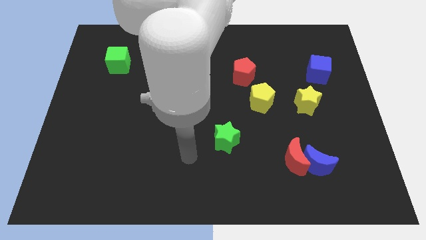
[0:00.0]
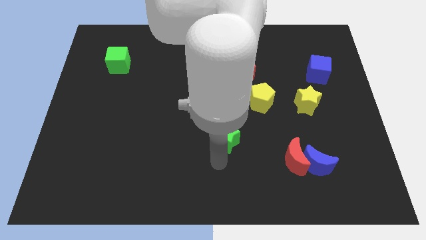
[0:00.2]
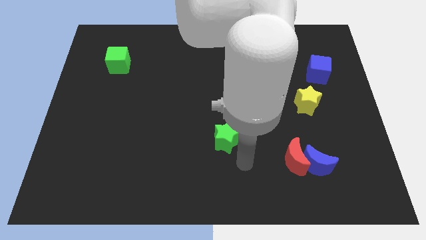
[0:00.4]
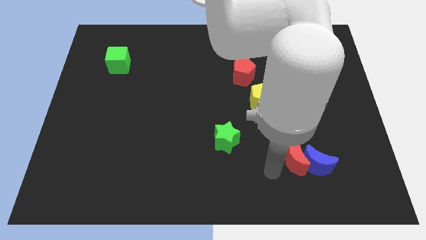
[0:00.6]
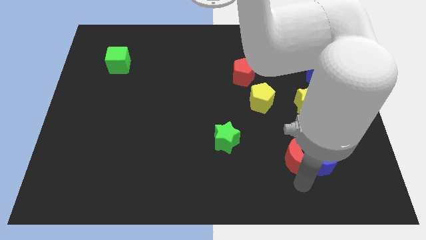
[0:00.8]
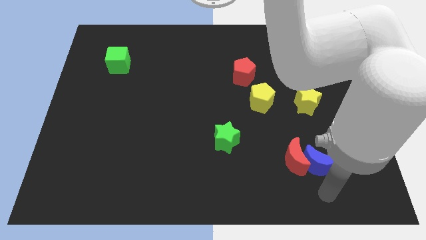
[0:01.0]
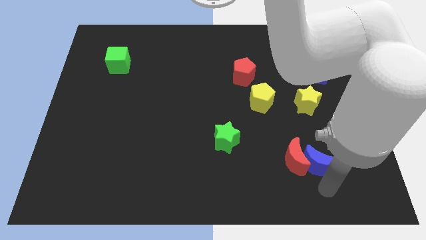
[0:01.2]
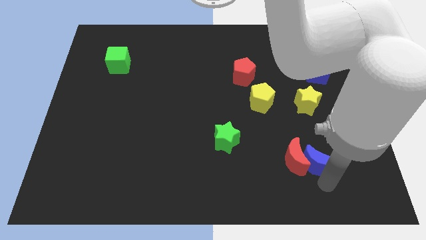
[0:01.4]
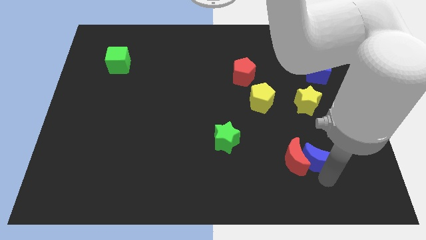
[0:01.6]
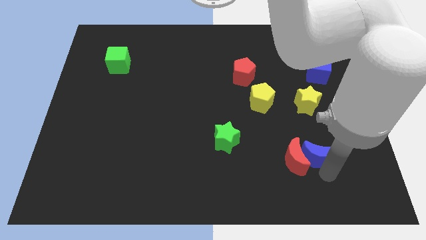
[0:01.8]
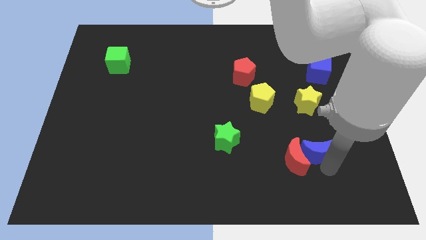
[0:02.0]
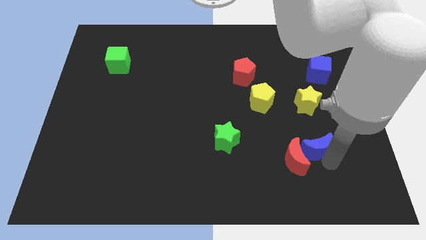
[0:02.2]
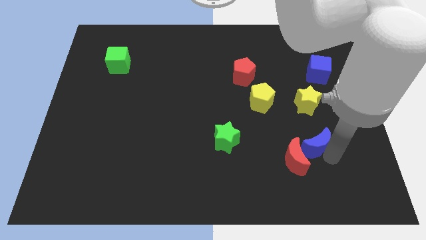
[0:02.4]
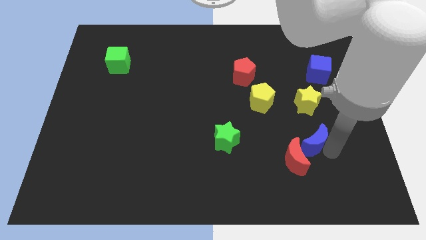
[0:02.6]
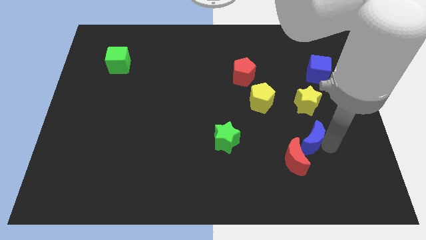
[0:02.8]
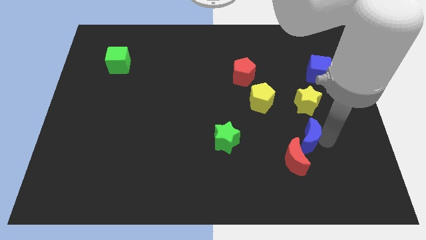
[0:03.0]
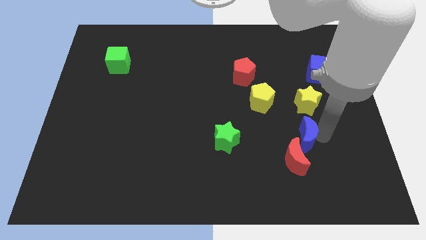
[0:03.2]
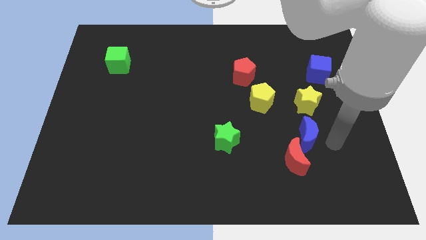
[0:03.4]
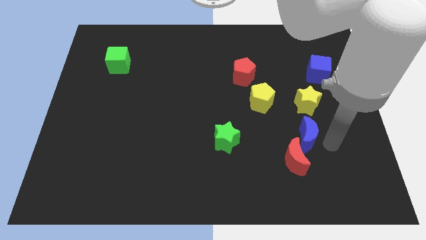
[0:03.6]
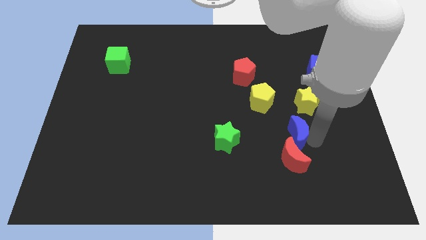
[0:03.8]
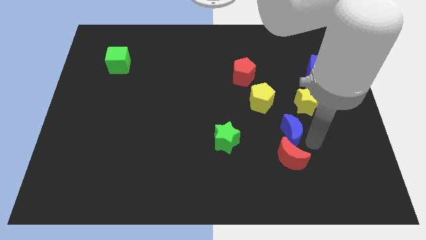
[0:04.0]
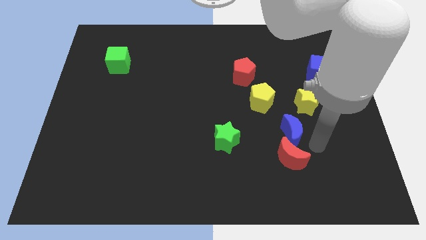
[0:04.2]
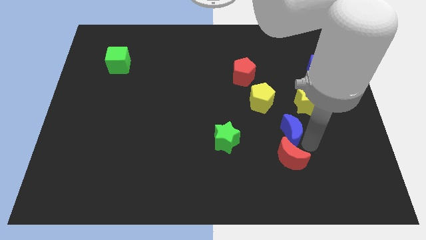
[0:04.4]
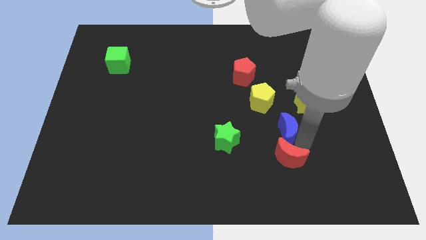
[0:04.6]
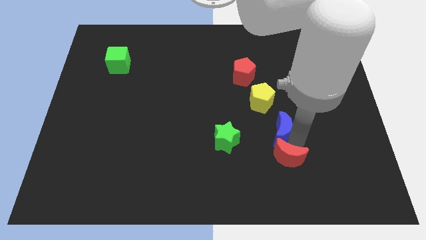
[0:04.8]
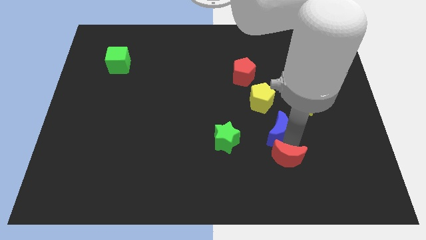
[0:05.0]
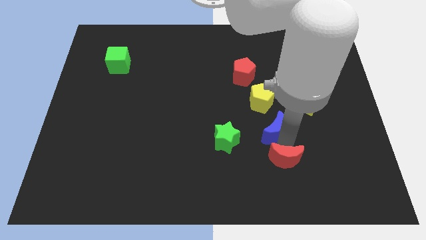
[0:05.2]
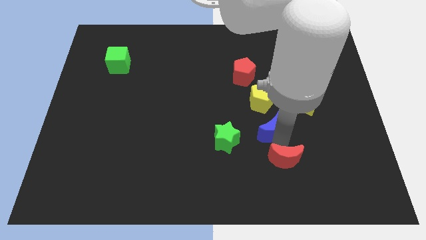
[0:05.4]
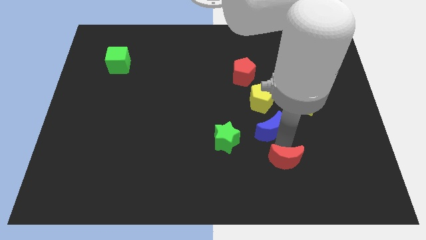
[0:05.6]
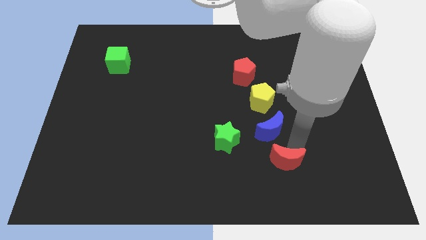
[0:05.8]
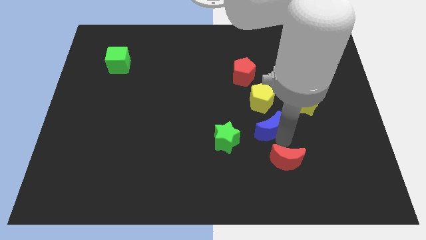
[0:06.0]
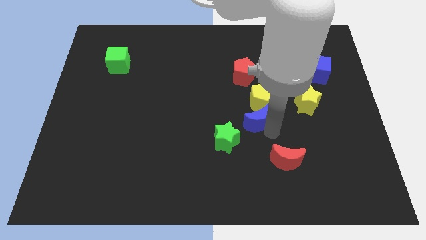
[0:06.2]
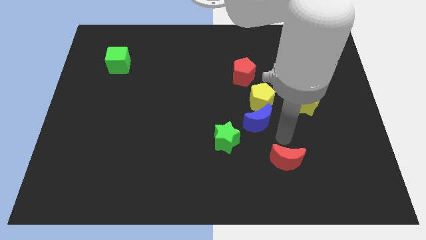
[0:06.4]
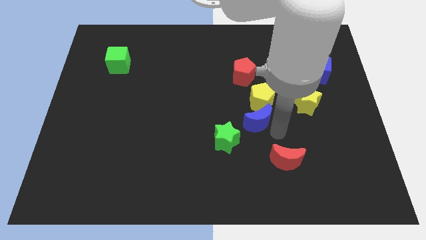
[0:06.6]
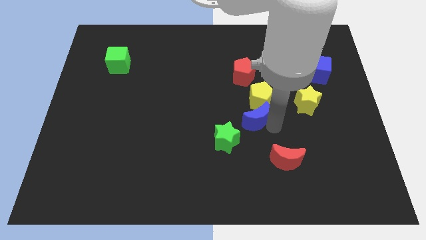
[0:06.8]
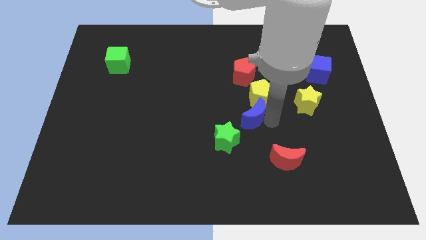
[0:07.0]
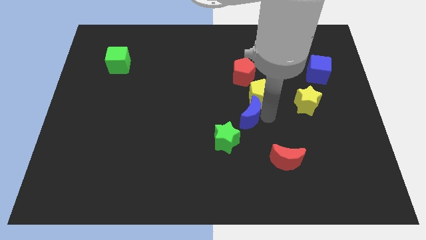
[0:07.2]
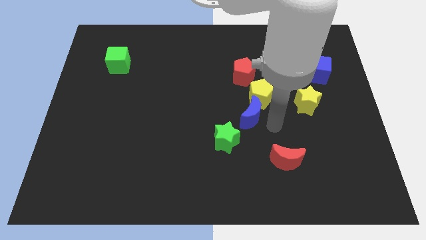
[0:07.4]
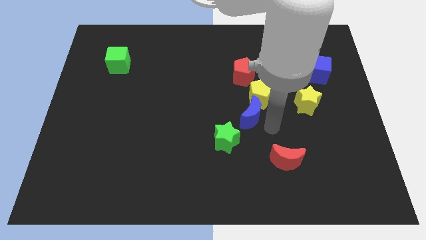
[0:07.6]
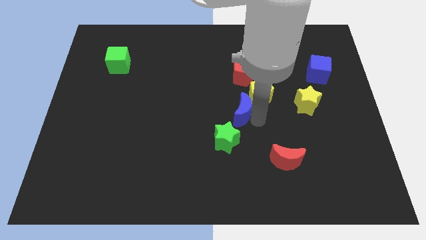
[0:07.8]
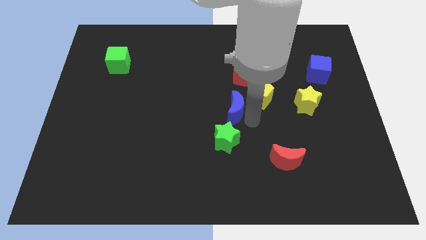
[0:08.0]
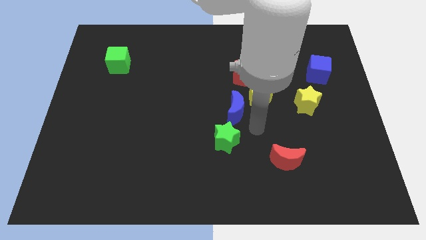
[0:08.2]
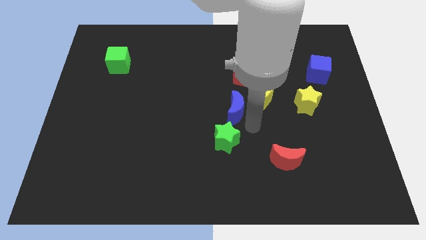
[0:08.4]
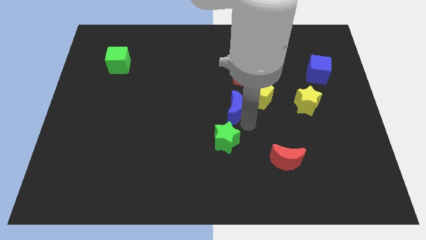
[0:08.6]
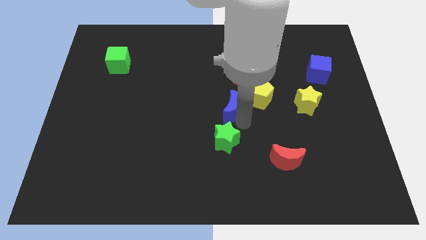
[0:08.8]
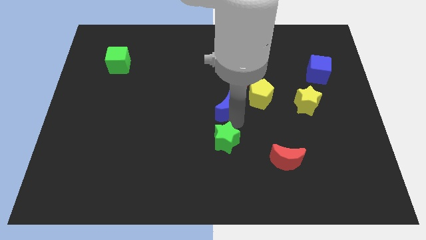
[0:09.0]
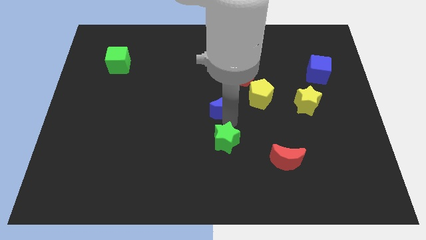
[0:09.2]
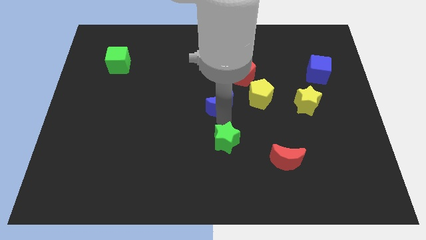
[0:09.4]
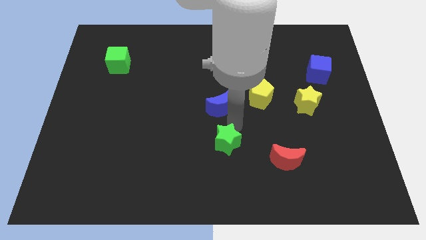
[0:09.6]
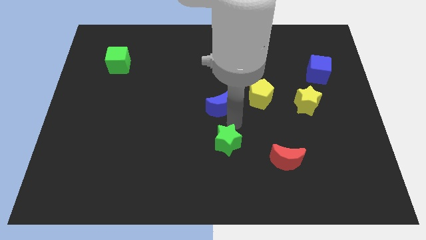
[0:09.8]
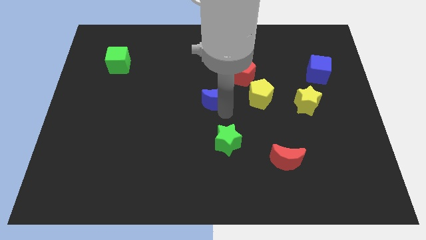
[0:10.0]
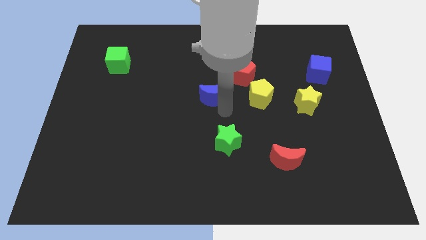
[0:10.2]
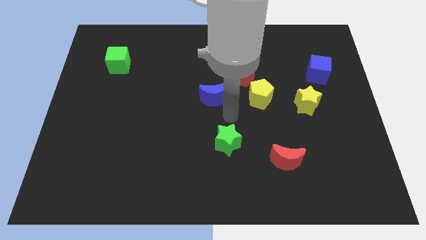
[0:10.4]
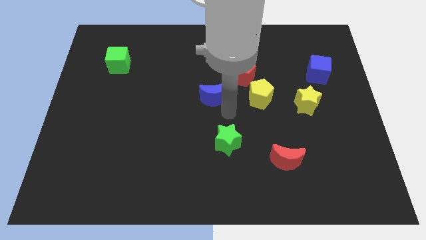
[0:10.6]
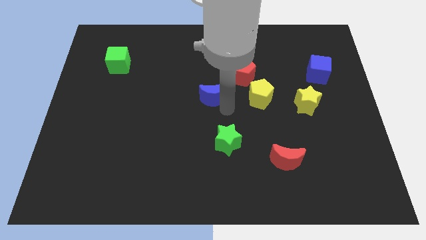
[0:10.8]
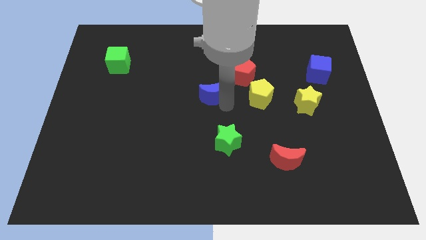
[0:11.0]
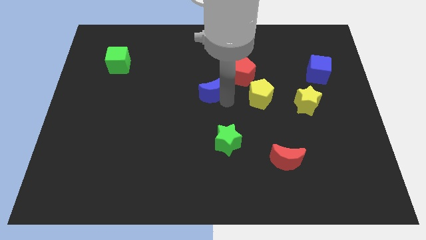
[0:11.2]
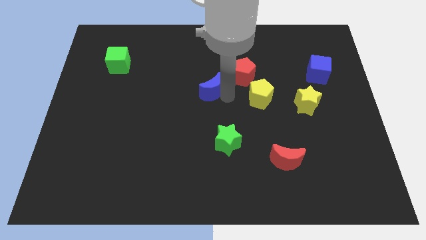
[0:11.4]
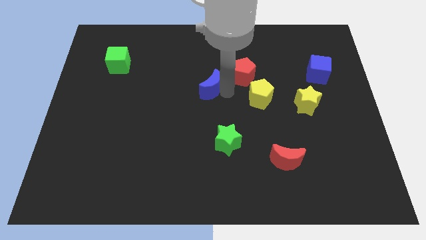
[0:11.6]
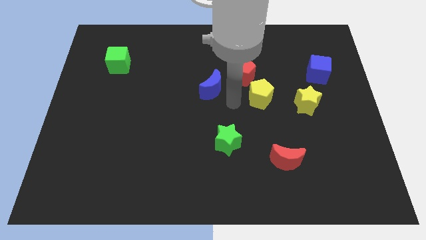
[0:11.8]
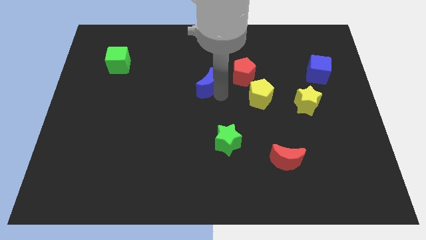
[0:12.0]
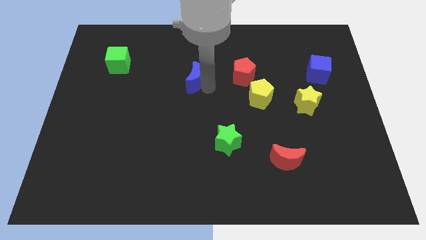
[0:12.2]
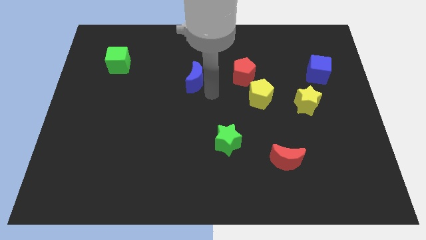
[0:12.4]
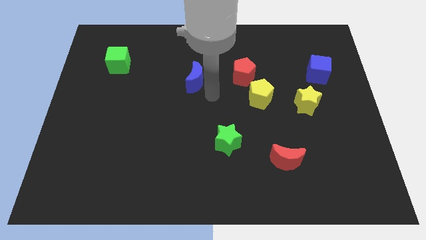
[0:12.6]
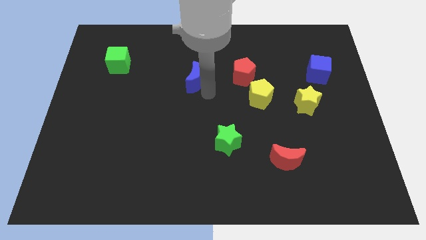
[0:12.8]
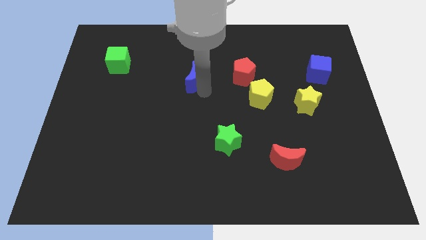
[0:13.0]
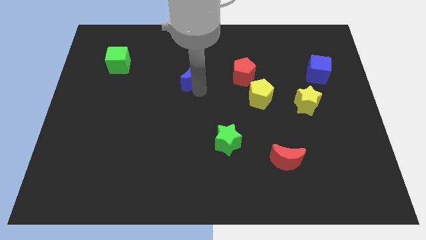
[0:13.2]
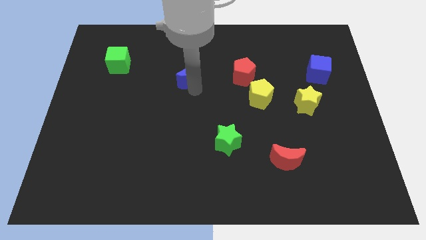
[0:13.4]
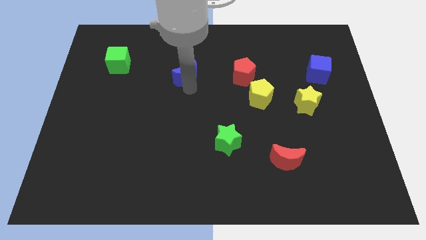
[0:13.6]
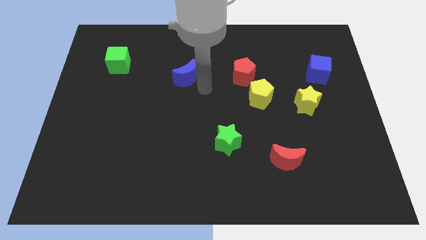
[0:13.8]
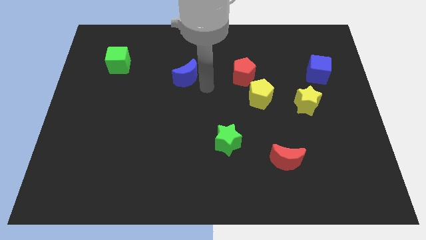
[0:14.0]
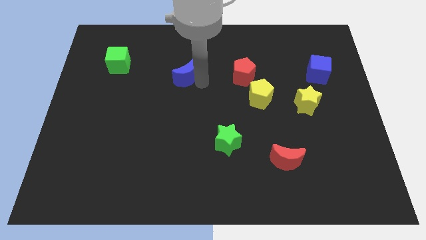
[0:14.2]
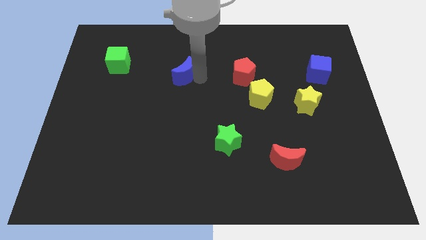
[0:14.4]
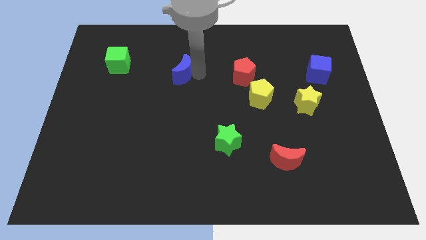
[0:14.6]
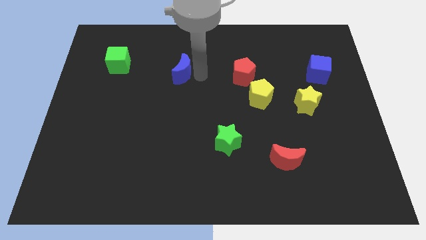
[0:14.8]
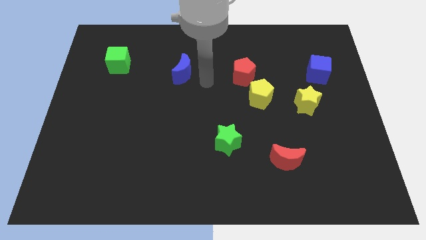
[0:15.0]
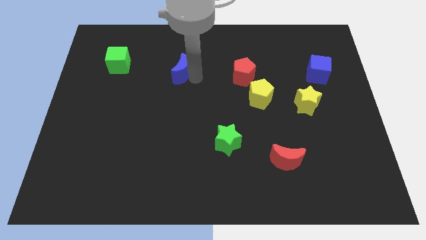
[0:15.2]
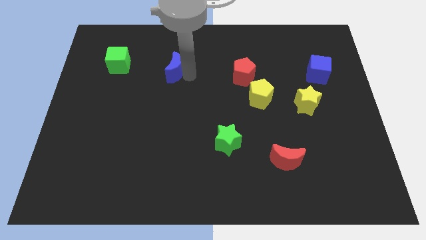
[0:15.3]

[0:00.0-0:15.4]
slide the blue moon to the right of the green cube

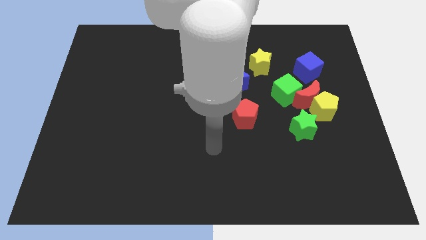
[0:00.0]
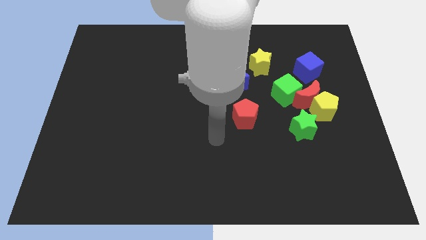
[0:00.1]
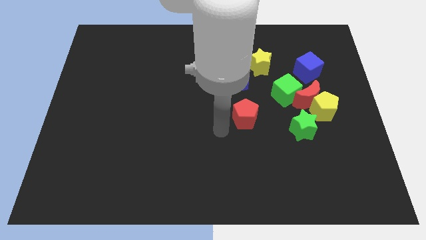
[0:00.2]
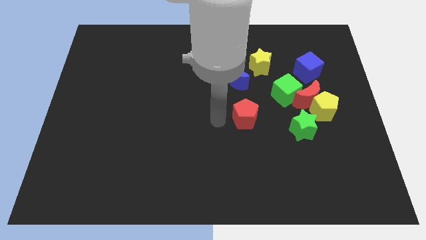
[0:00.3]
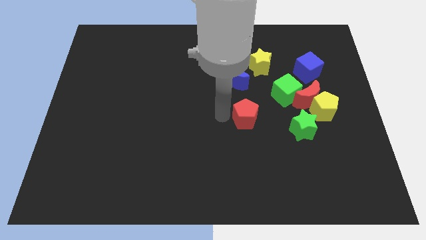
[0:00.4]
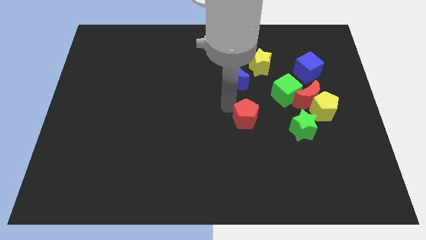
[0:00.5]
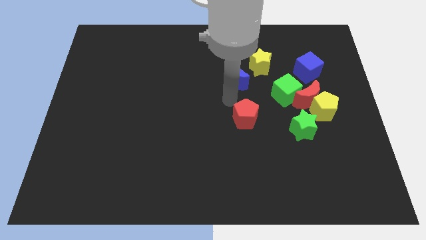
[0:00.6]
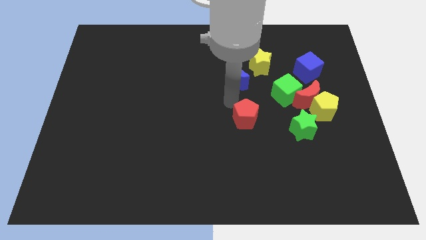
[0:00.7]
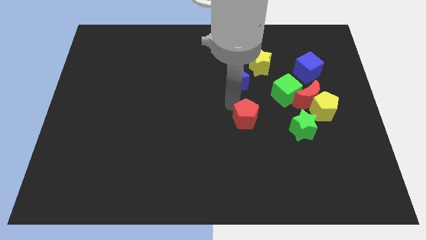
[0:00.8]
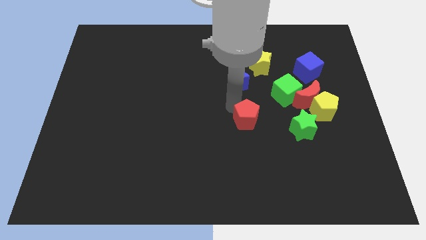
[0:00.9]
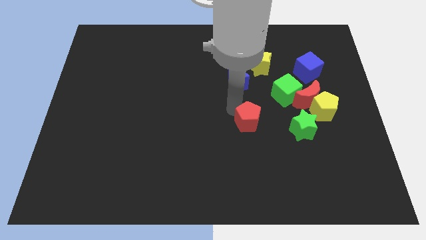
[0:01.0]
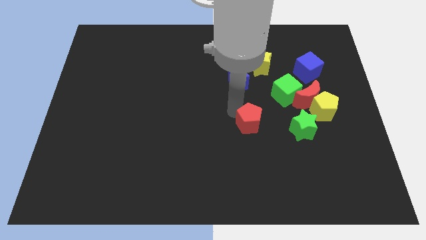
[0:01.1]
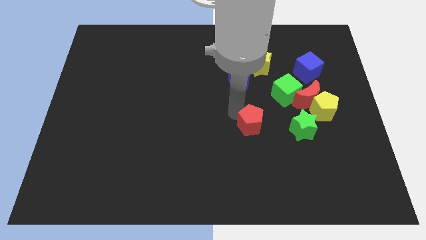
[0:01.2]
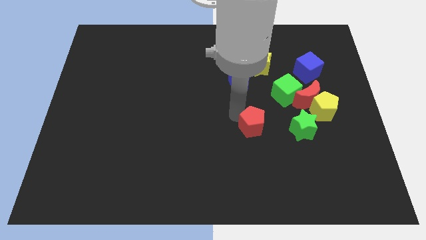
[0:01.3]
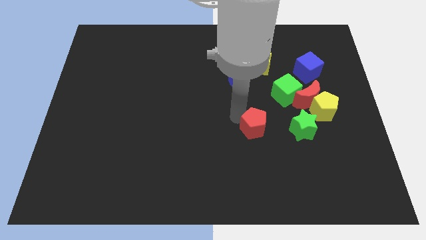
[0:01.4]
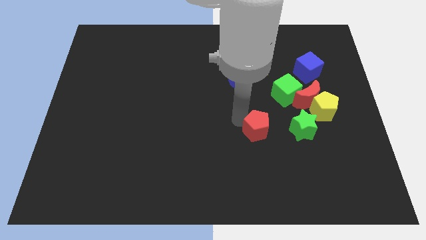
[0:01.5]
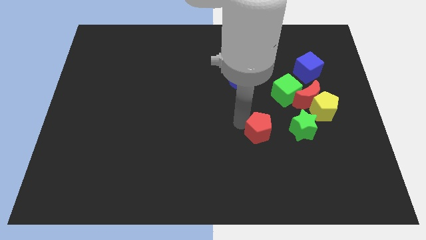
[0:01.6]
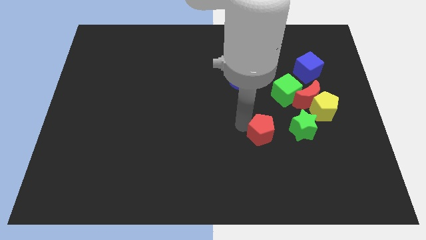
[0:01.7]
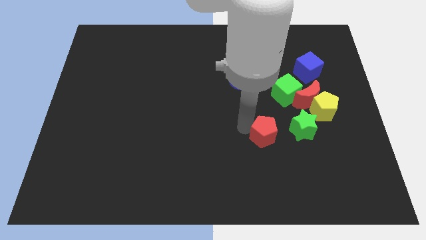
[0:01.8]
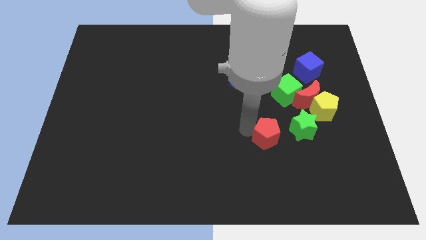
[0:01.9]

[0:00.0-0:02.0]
move the red pentagon diagonally down and to the left of the green star
